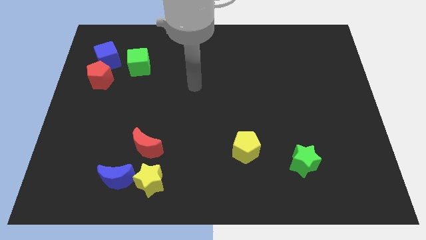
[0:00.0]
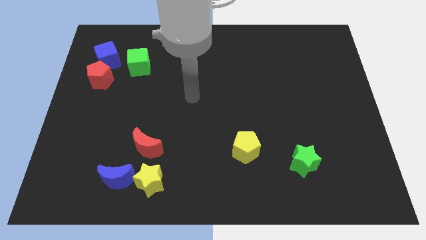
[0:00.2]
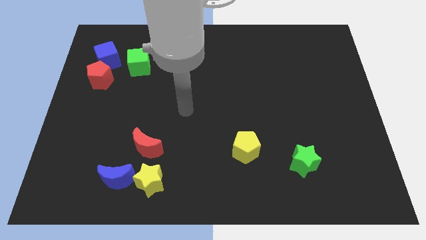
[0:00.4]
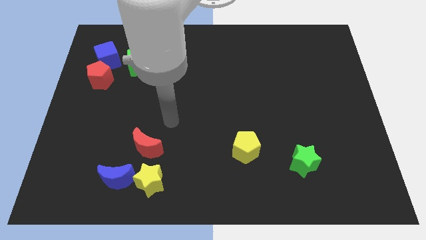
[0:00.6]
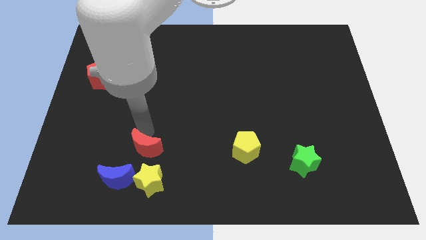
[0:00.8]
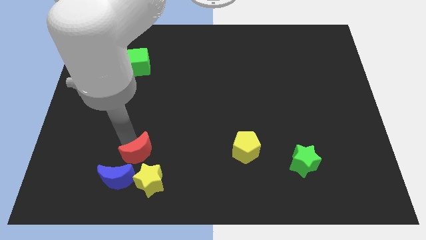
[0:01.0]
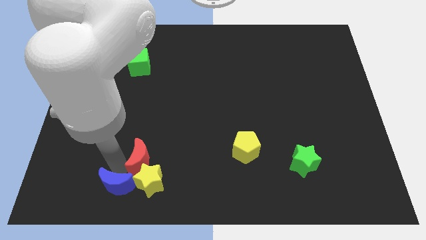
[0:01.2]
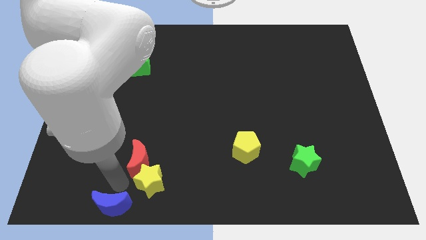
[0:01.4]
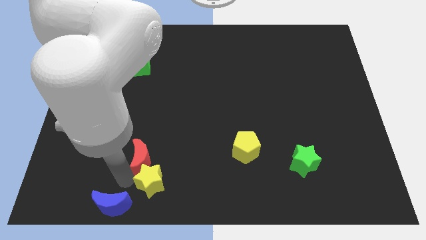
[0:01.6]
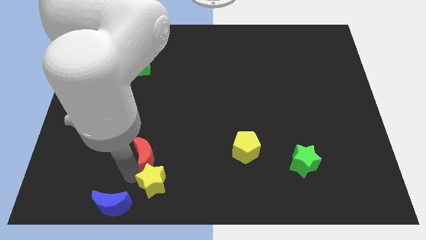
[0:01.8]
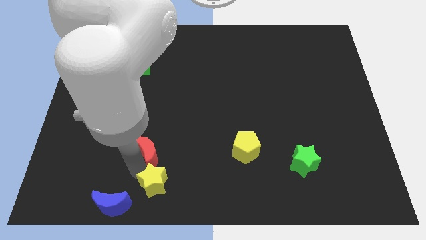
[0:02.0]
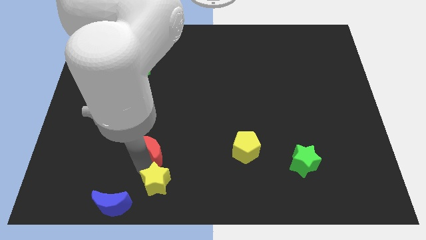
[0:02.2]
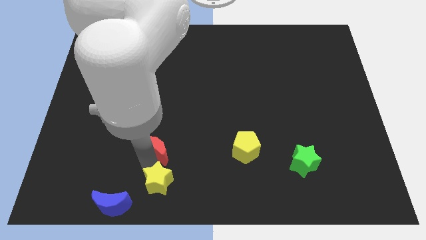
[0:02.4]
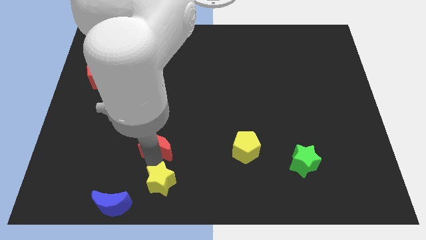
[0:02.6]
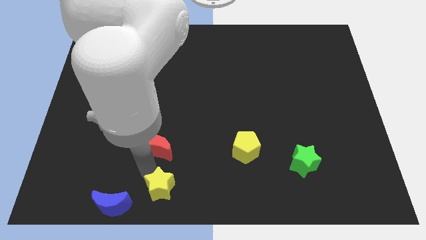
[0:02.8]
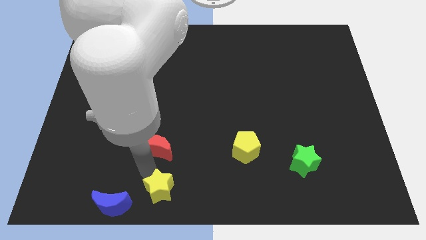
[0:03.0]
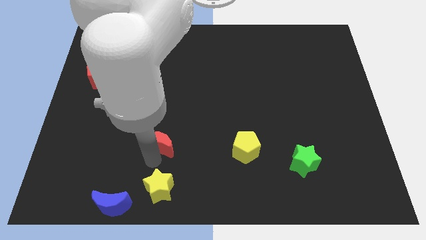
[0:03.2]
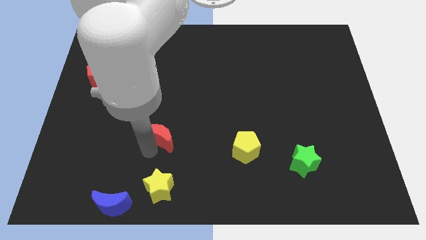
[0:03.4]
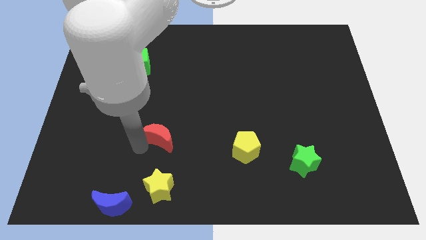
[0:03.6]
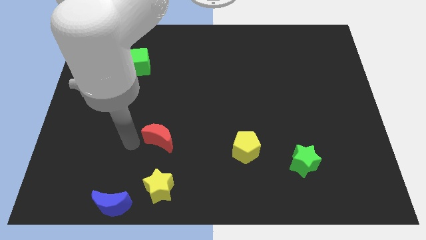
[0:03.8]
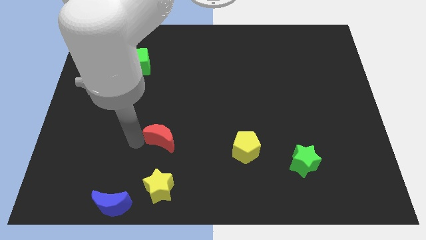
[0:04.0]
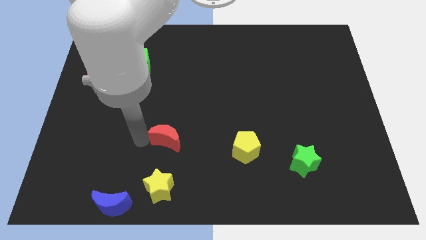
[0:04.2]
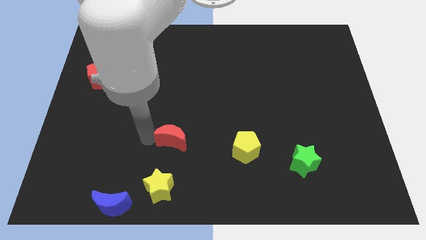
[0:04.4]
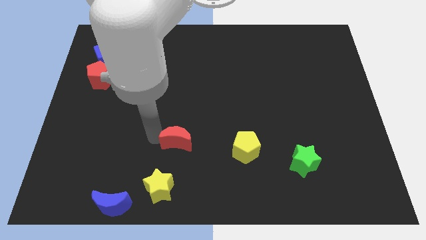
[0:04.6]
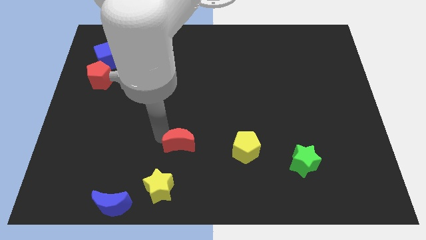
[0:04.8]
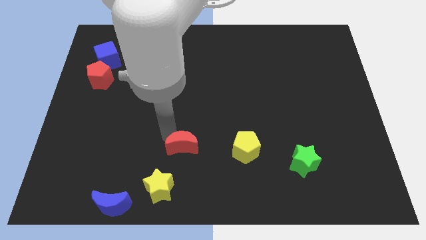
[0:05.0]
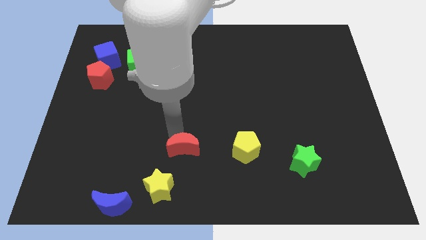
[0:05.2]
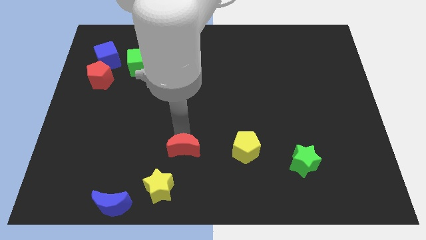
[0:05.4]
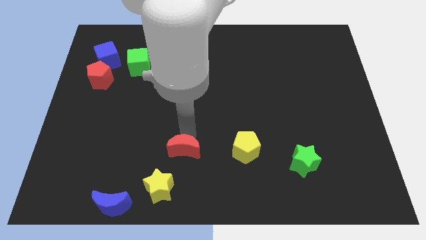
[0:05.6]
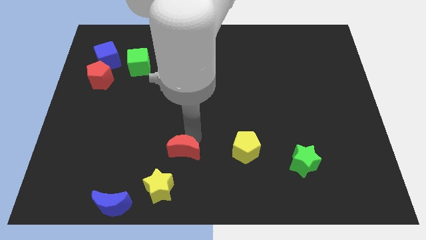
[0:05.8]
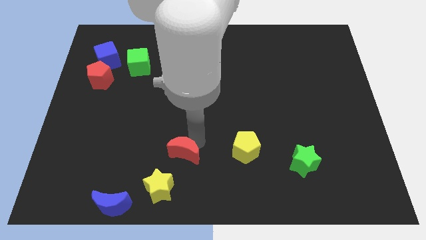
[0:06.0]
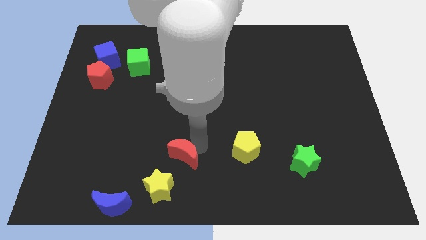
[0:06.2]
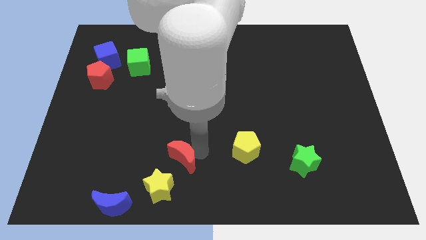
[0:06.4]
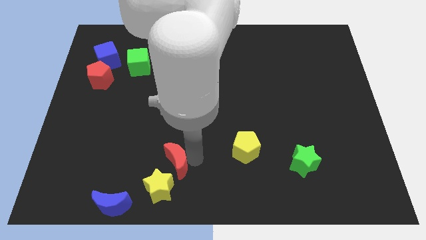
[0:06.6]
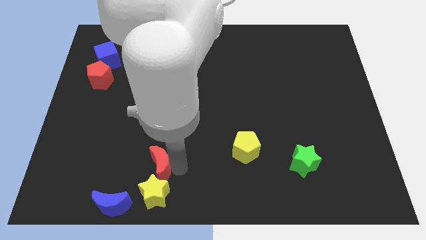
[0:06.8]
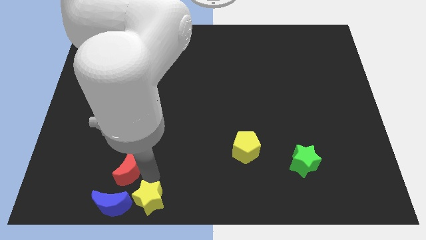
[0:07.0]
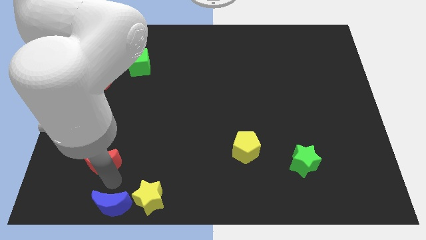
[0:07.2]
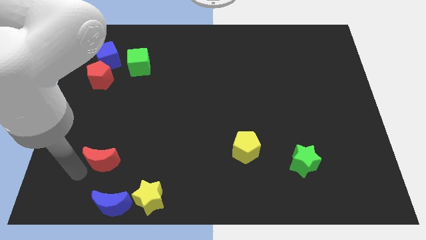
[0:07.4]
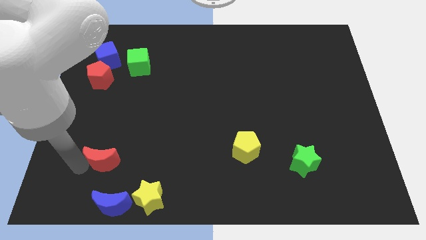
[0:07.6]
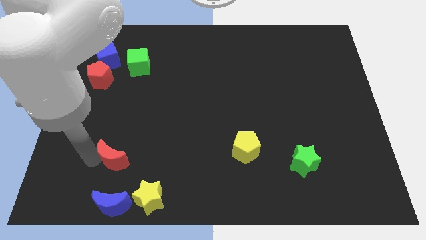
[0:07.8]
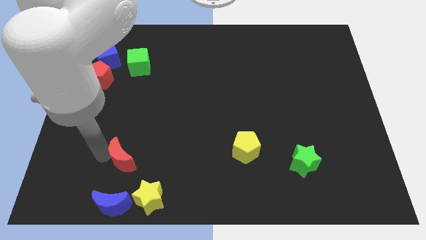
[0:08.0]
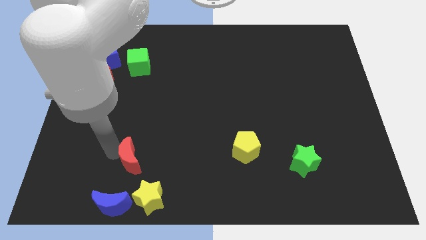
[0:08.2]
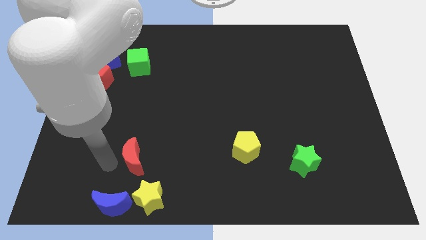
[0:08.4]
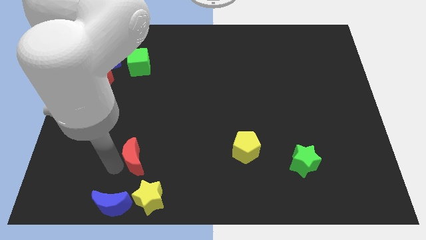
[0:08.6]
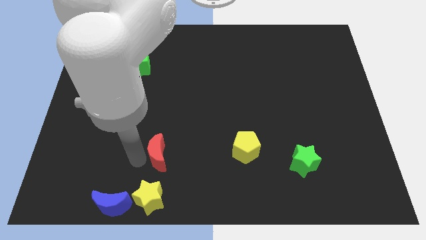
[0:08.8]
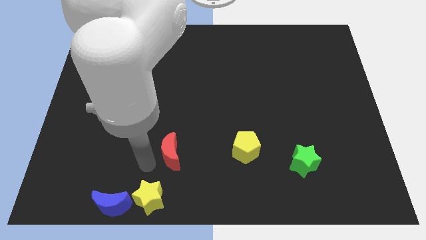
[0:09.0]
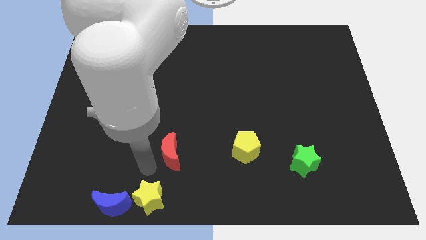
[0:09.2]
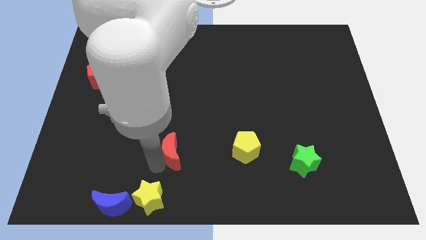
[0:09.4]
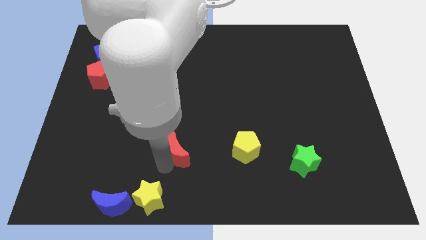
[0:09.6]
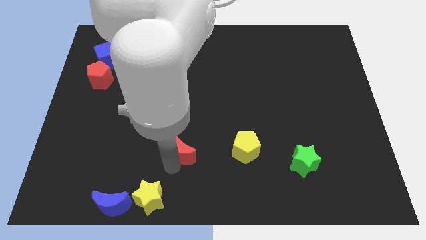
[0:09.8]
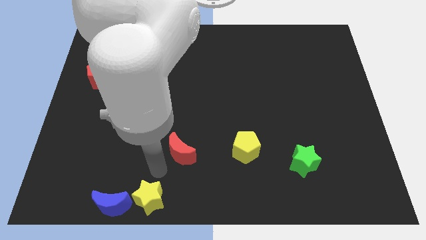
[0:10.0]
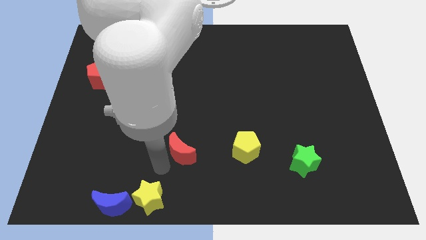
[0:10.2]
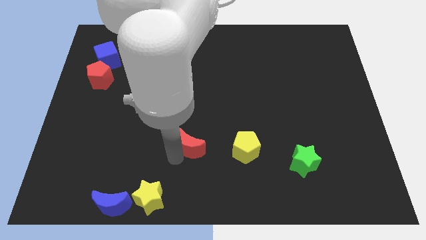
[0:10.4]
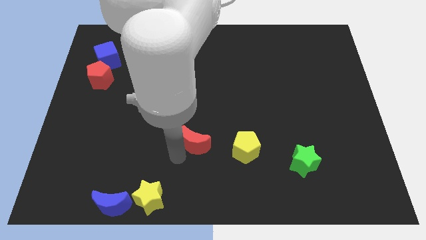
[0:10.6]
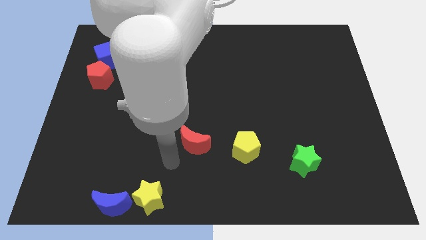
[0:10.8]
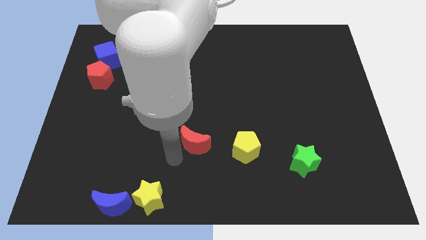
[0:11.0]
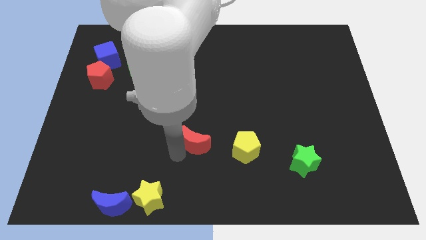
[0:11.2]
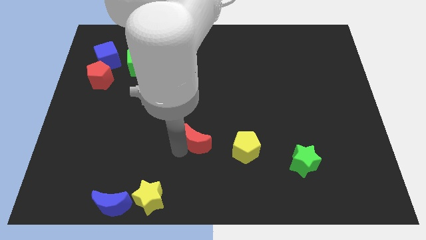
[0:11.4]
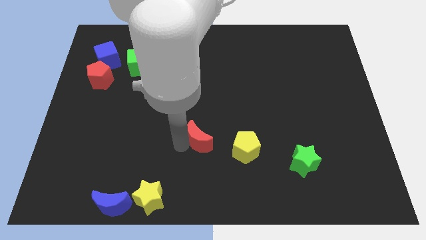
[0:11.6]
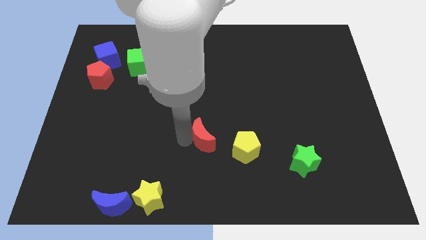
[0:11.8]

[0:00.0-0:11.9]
push the red moon to the top left side of the yellow pentagon

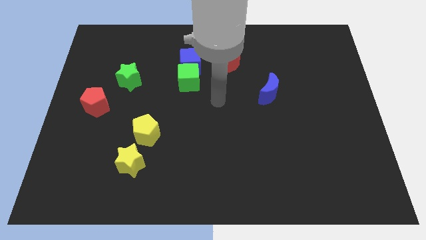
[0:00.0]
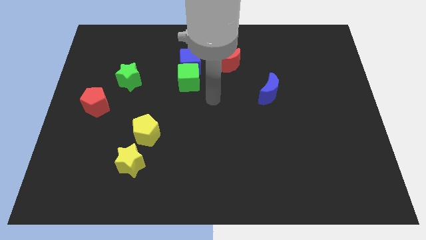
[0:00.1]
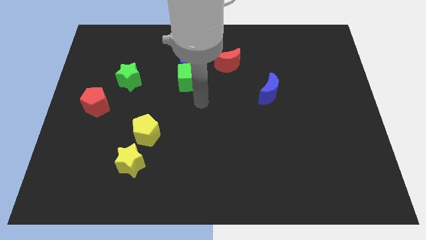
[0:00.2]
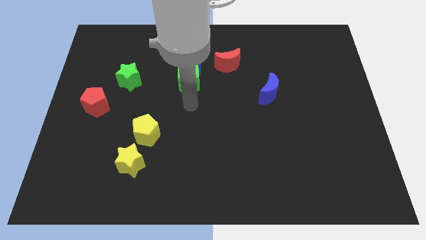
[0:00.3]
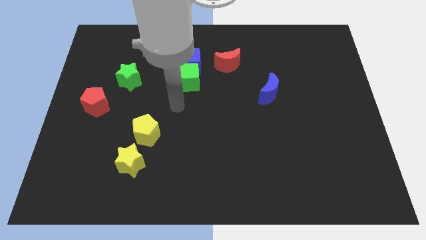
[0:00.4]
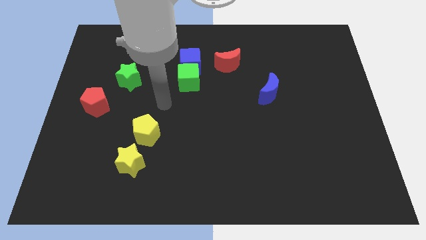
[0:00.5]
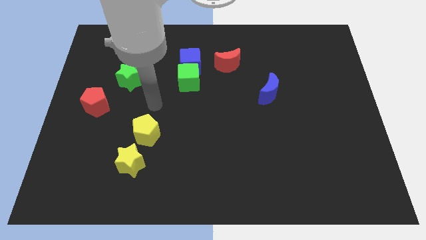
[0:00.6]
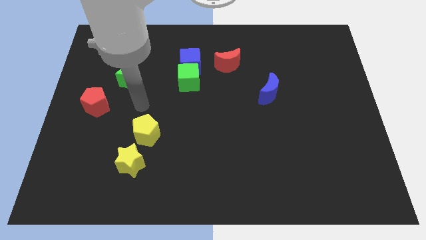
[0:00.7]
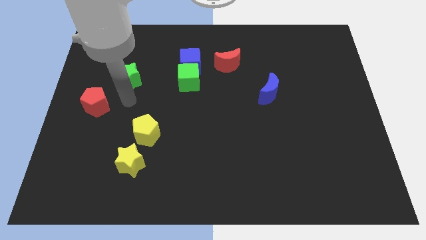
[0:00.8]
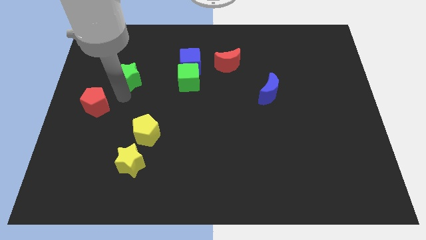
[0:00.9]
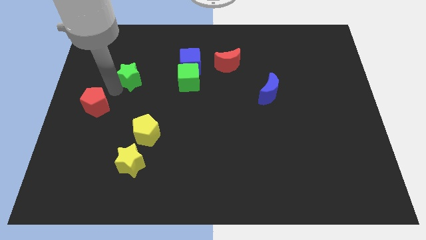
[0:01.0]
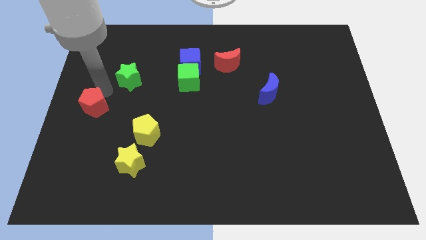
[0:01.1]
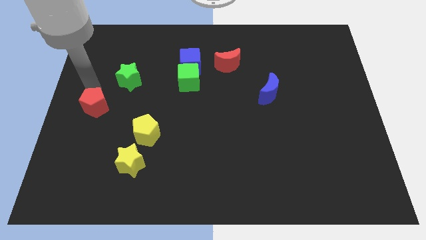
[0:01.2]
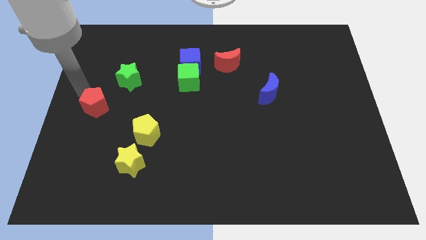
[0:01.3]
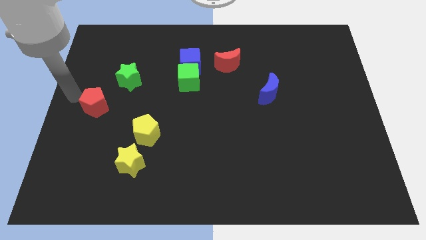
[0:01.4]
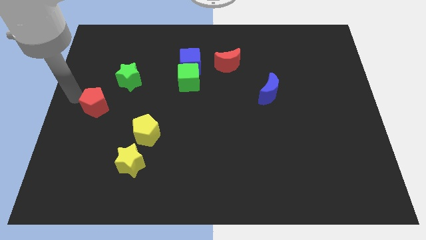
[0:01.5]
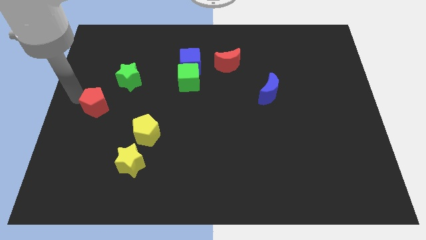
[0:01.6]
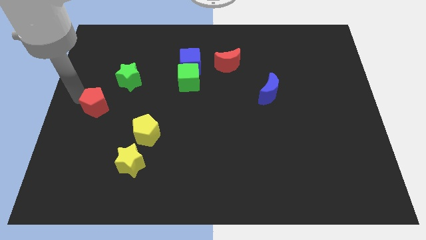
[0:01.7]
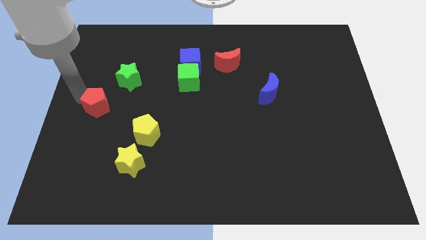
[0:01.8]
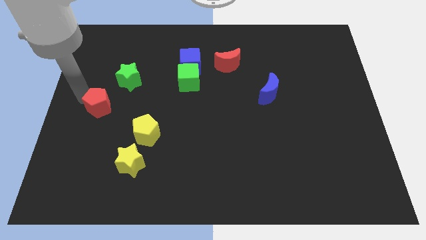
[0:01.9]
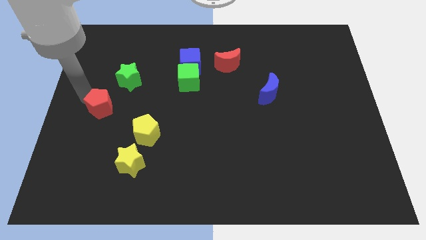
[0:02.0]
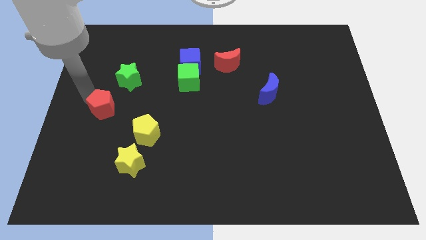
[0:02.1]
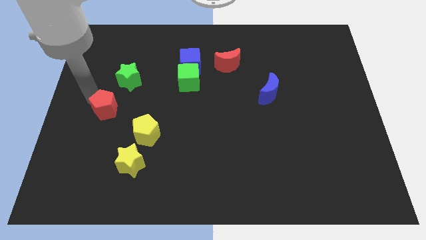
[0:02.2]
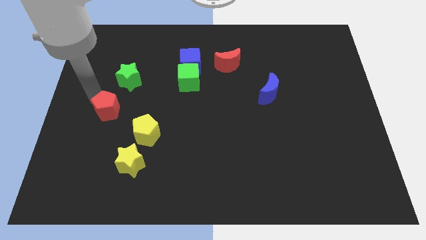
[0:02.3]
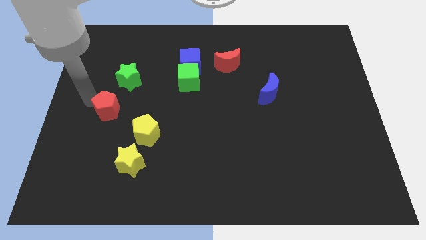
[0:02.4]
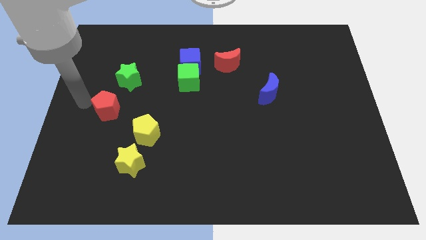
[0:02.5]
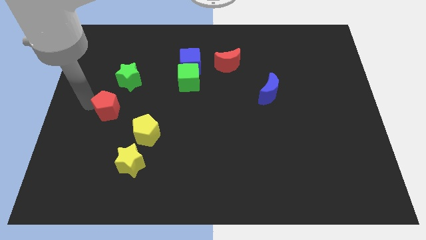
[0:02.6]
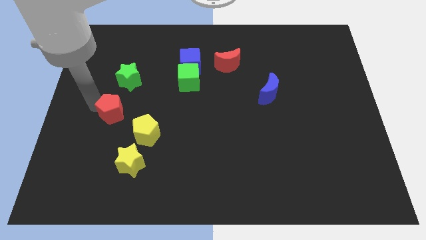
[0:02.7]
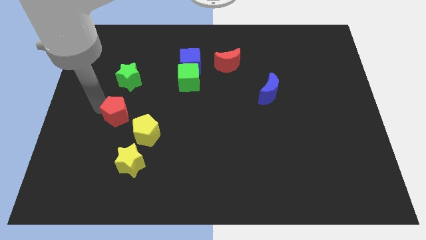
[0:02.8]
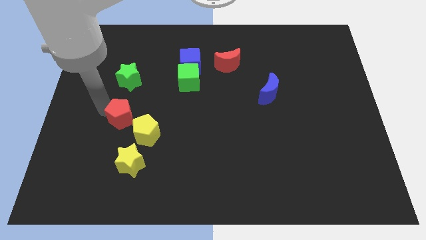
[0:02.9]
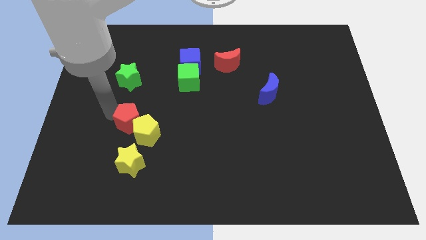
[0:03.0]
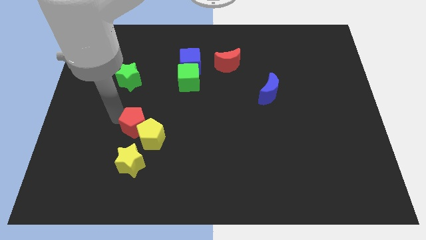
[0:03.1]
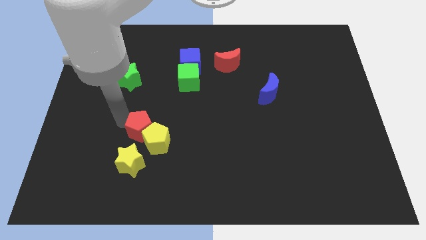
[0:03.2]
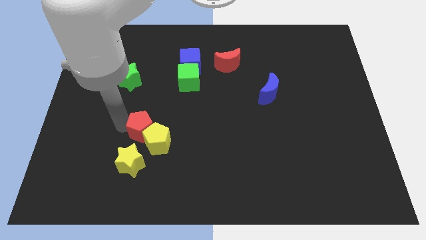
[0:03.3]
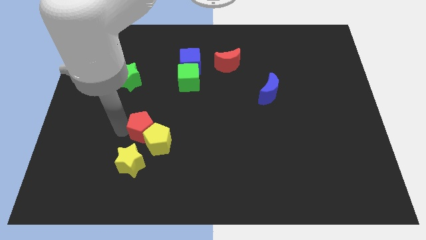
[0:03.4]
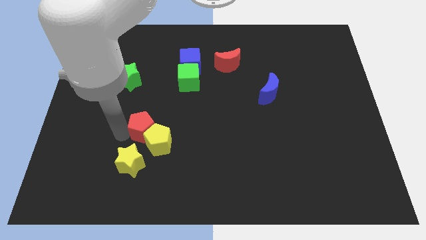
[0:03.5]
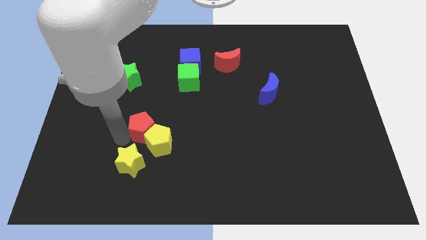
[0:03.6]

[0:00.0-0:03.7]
put the red pentagon diagonally up and to the right of the yellow star
